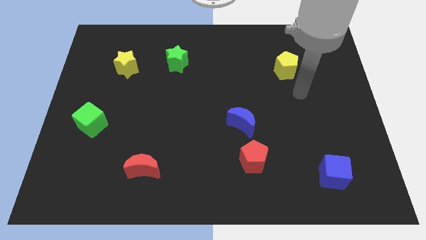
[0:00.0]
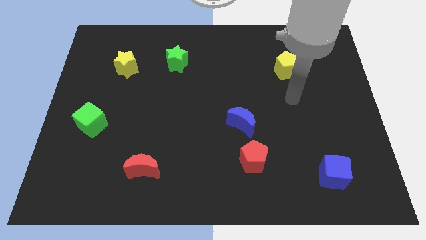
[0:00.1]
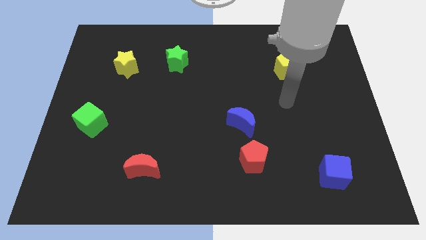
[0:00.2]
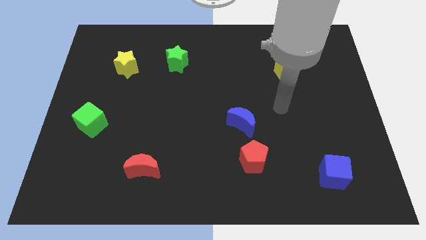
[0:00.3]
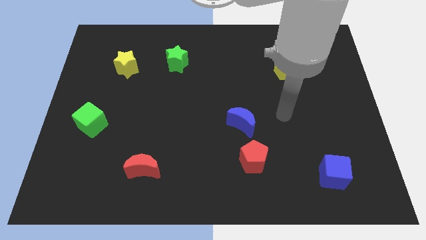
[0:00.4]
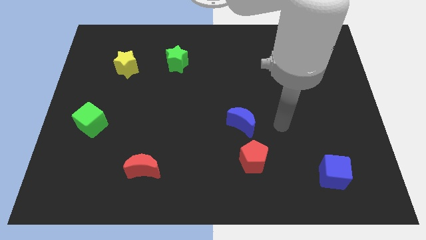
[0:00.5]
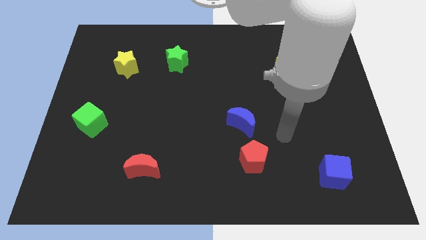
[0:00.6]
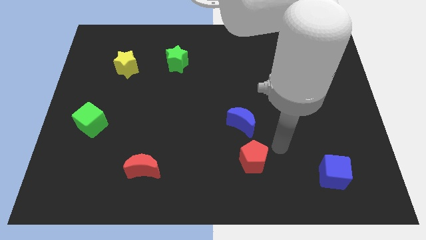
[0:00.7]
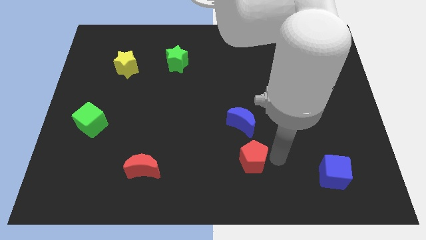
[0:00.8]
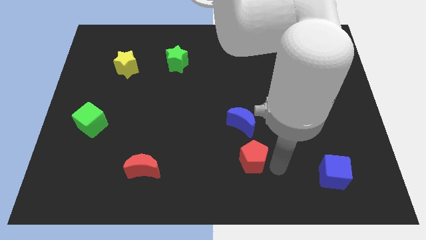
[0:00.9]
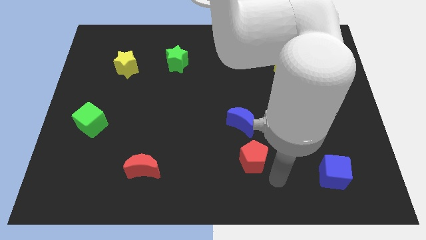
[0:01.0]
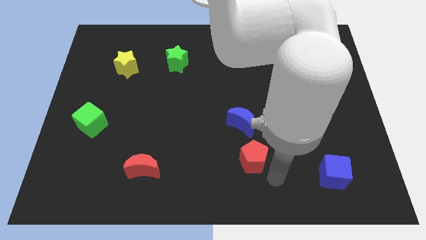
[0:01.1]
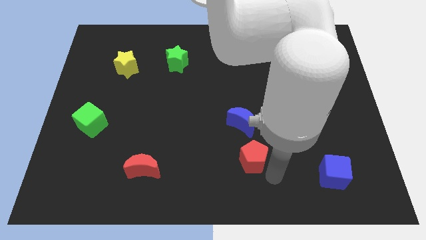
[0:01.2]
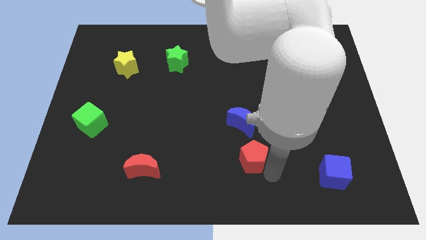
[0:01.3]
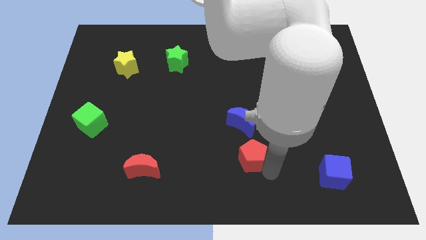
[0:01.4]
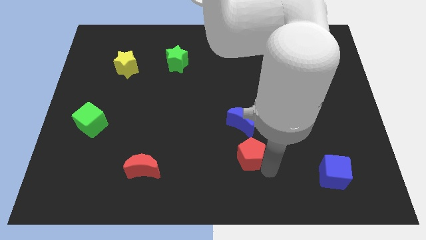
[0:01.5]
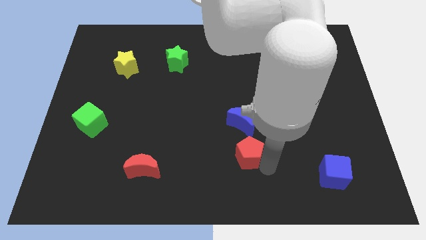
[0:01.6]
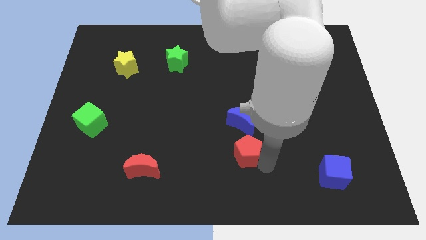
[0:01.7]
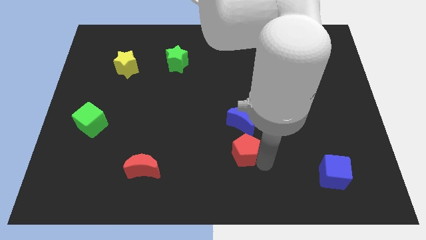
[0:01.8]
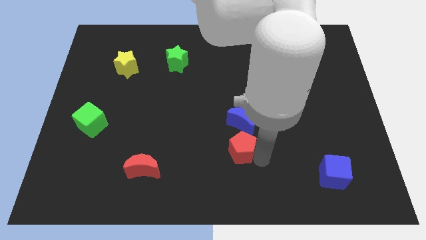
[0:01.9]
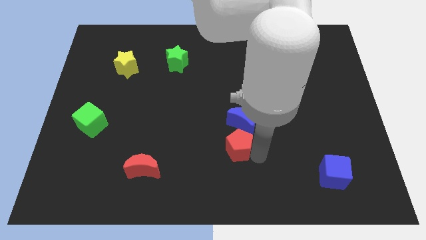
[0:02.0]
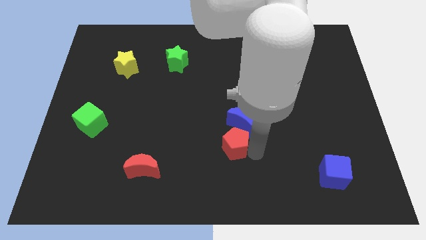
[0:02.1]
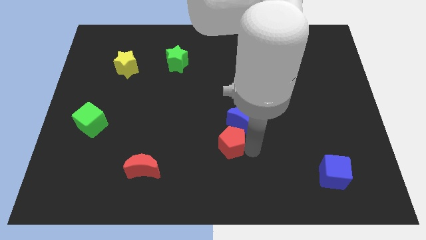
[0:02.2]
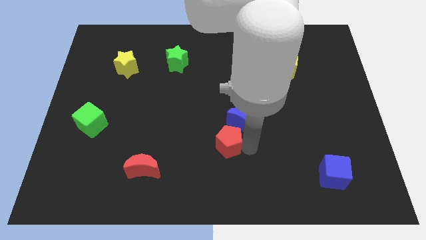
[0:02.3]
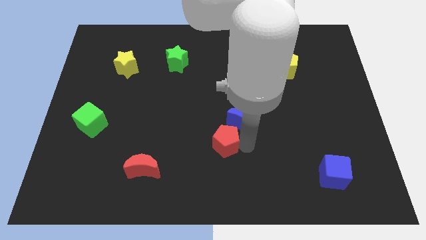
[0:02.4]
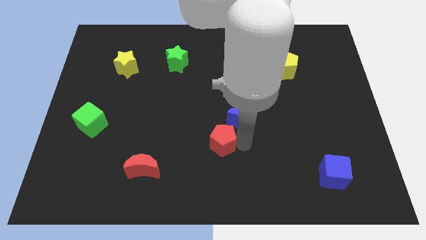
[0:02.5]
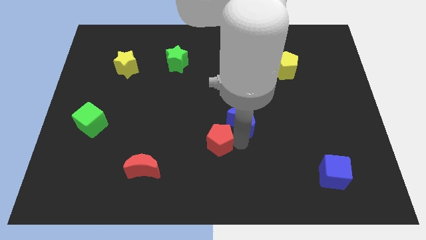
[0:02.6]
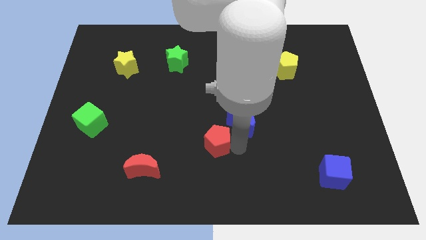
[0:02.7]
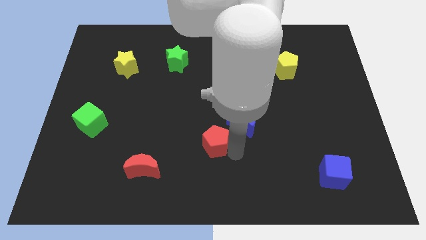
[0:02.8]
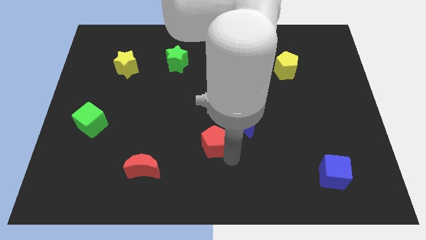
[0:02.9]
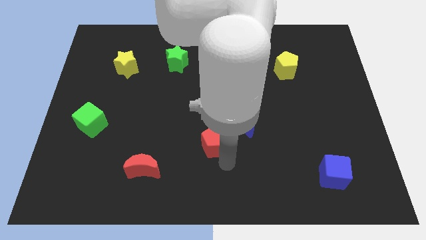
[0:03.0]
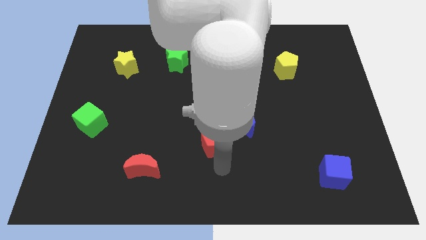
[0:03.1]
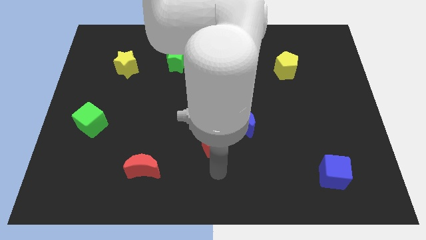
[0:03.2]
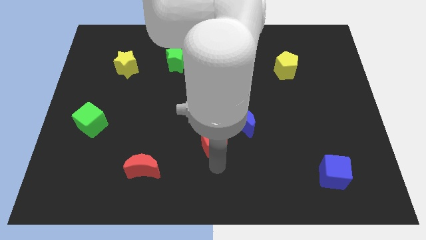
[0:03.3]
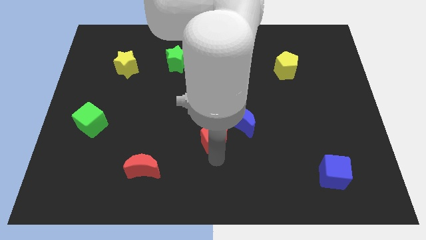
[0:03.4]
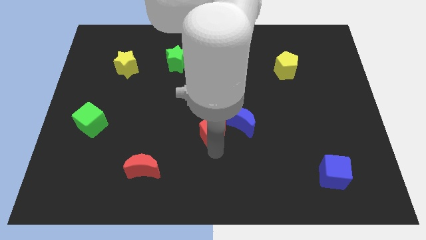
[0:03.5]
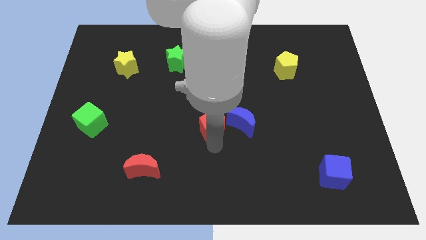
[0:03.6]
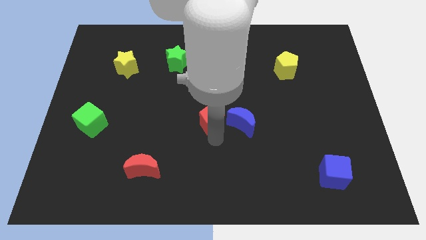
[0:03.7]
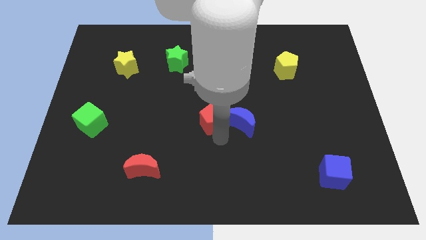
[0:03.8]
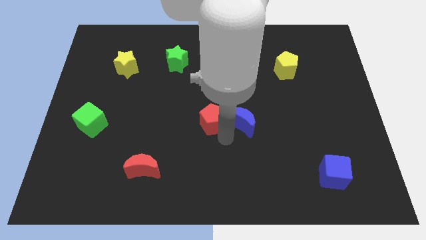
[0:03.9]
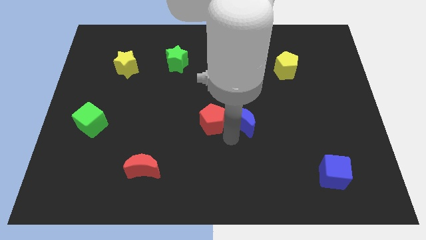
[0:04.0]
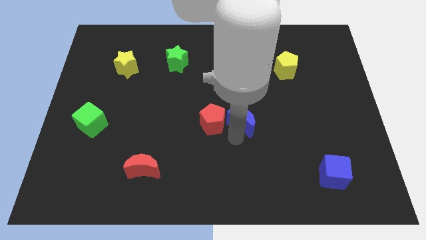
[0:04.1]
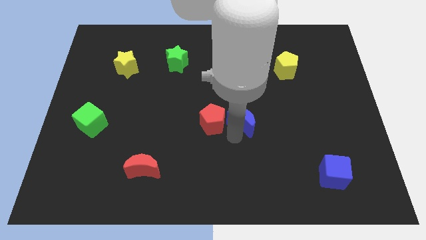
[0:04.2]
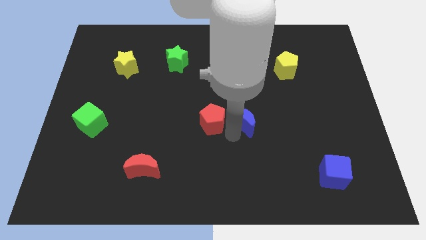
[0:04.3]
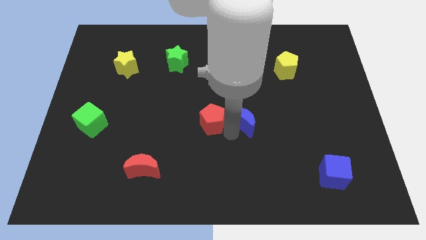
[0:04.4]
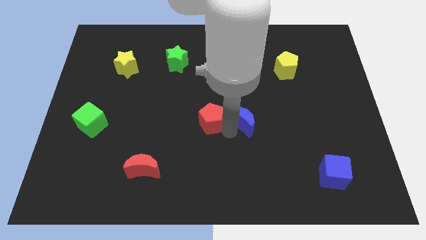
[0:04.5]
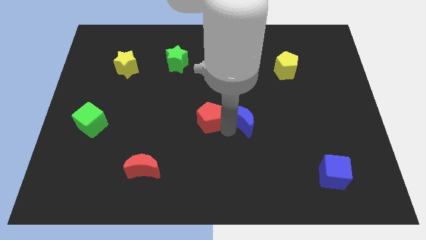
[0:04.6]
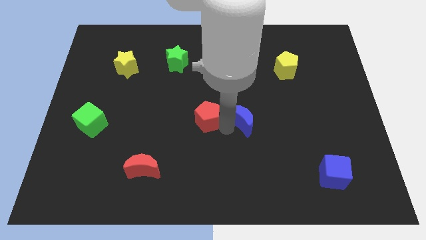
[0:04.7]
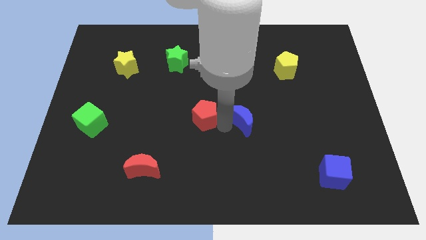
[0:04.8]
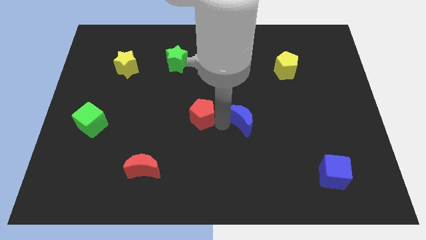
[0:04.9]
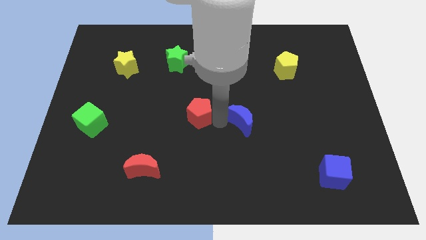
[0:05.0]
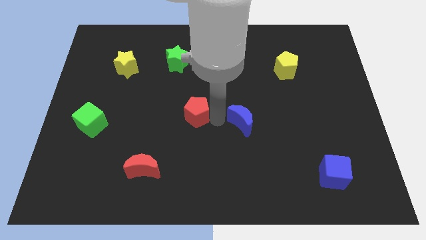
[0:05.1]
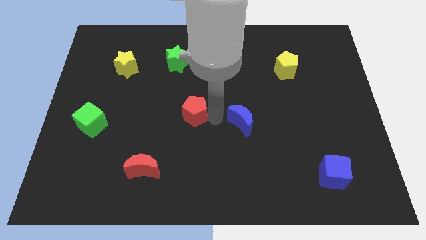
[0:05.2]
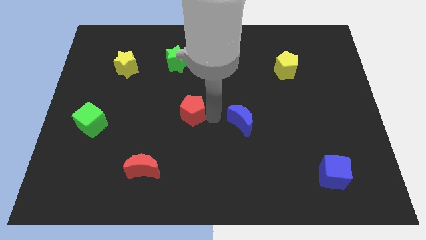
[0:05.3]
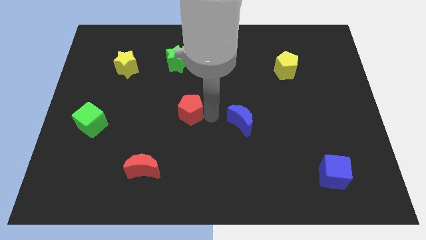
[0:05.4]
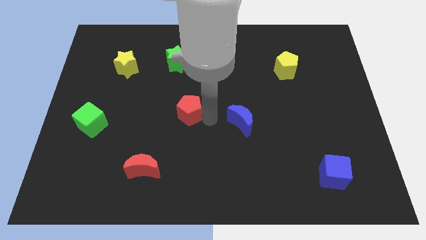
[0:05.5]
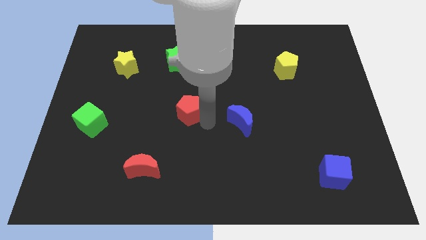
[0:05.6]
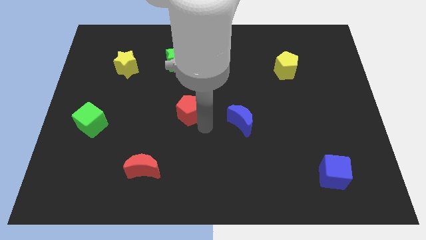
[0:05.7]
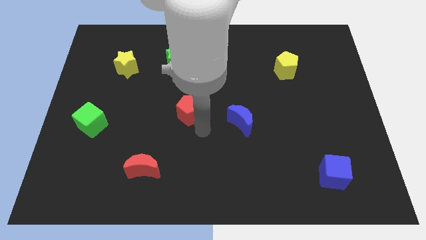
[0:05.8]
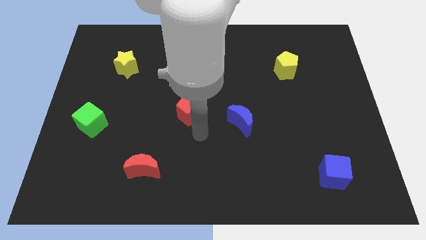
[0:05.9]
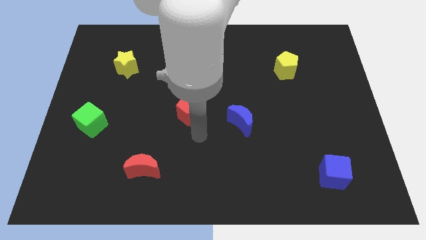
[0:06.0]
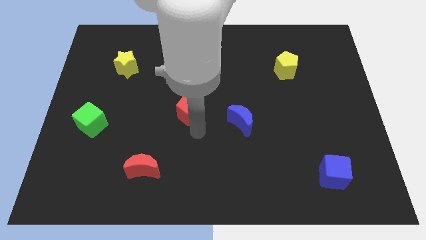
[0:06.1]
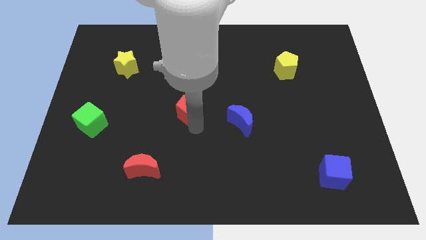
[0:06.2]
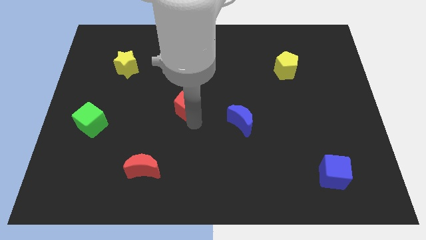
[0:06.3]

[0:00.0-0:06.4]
push the red pentagon diagonally up and to the left

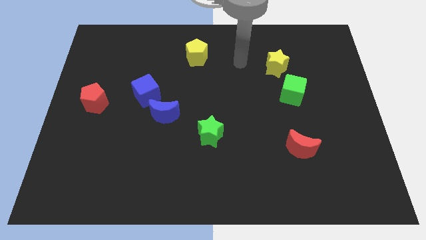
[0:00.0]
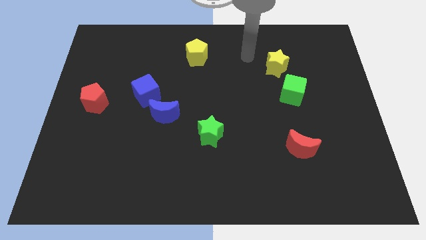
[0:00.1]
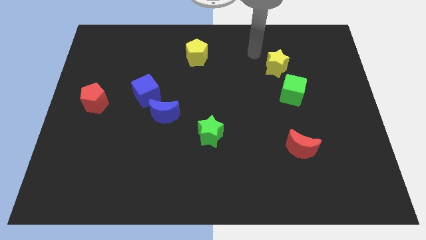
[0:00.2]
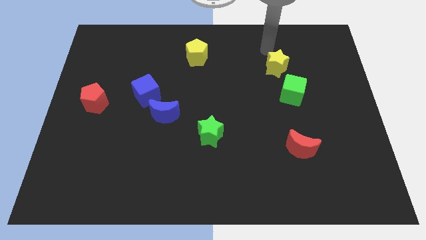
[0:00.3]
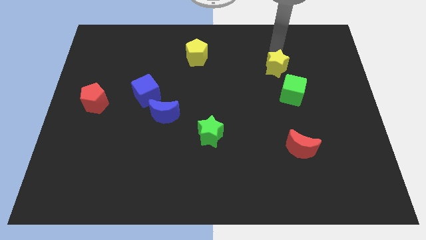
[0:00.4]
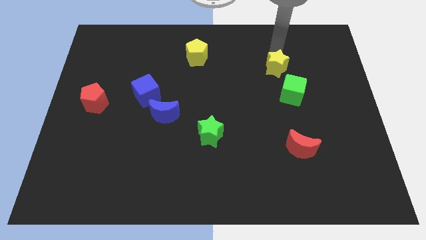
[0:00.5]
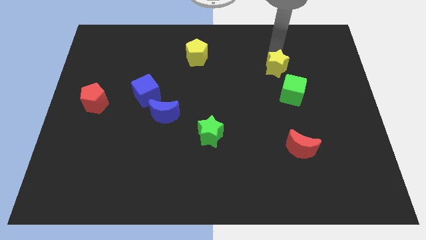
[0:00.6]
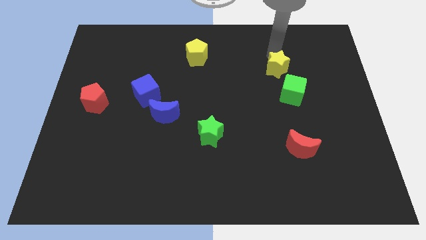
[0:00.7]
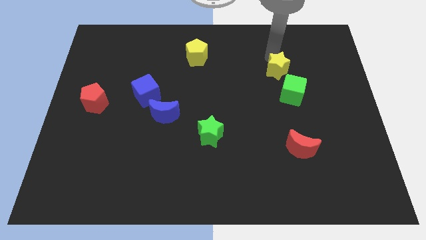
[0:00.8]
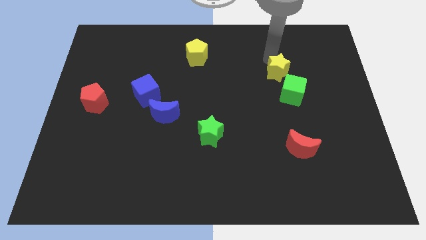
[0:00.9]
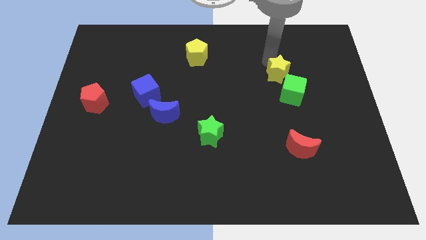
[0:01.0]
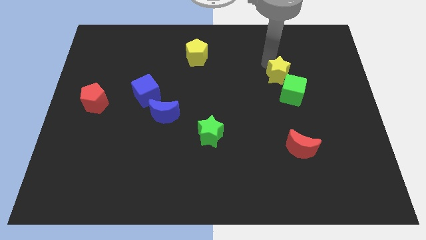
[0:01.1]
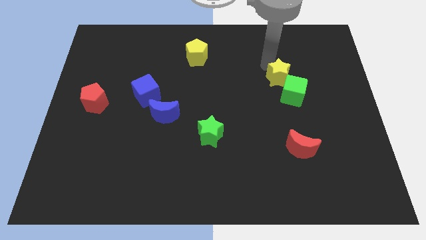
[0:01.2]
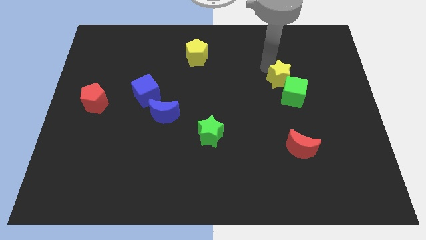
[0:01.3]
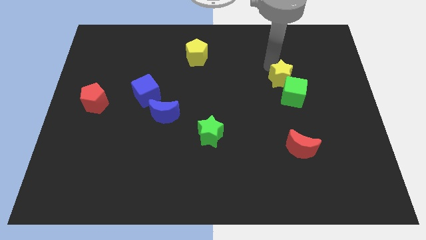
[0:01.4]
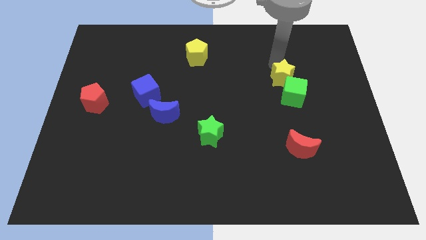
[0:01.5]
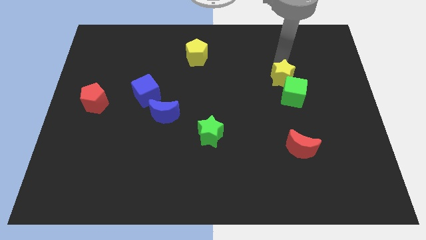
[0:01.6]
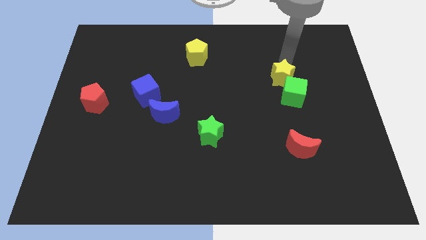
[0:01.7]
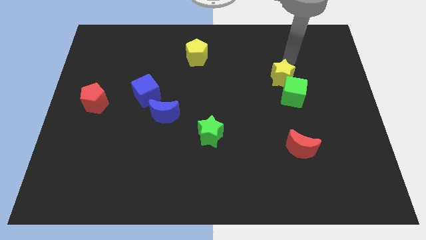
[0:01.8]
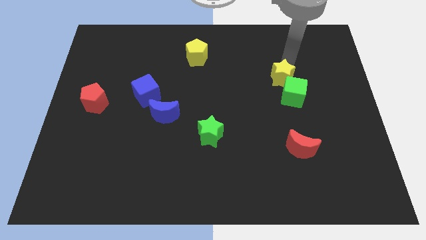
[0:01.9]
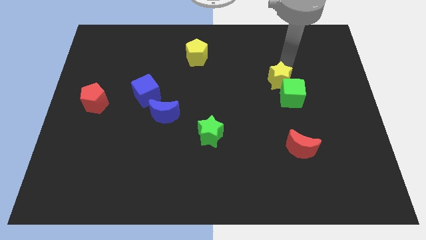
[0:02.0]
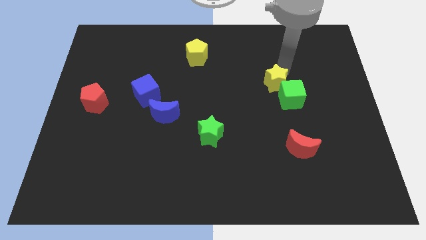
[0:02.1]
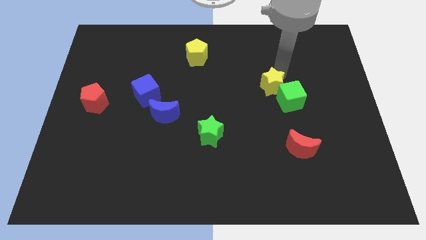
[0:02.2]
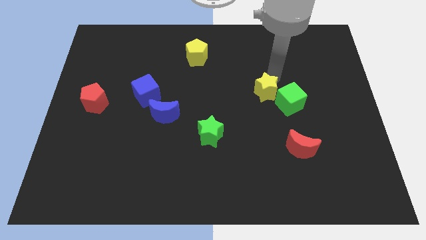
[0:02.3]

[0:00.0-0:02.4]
push the yellow star downwards a little bit
